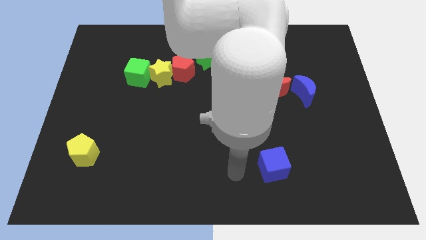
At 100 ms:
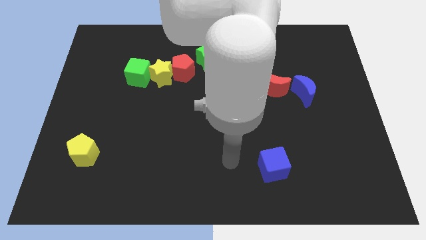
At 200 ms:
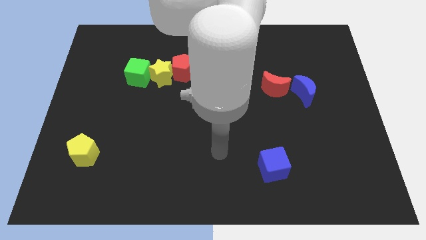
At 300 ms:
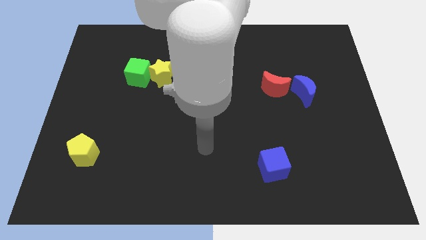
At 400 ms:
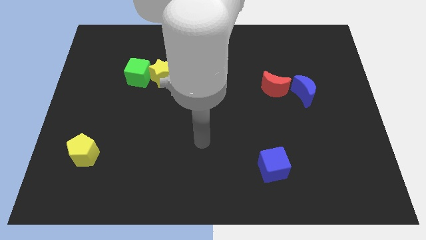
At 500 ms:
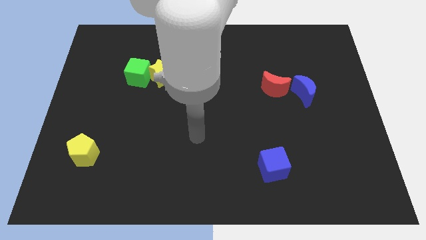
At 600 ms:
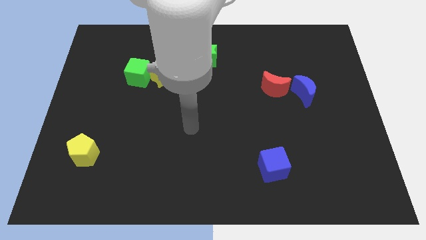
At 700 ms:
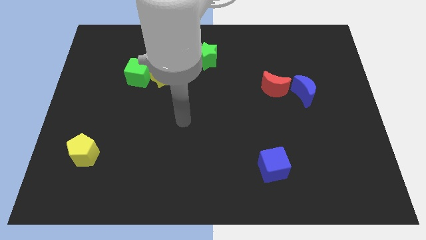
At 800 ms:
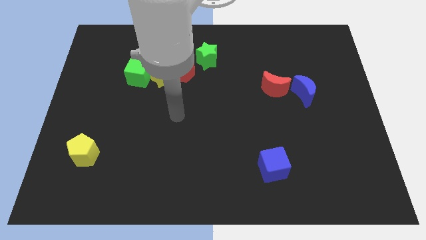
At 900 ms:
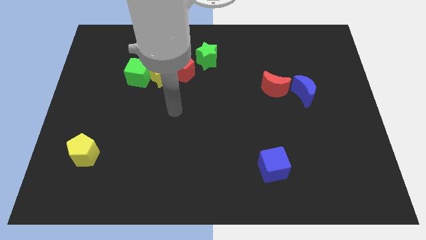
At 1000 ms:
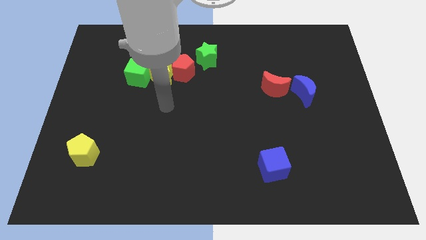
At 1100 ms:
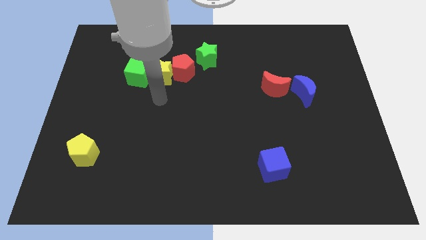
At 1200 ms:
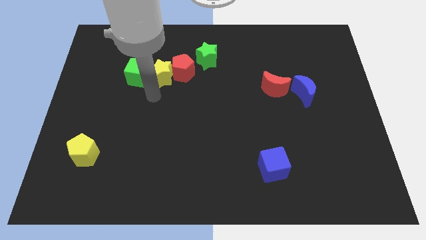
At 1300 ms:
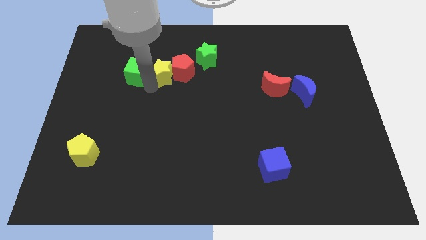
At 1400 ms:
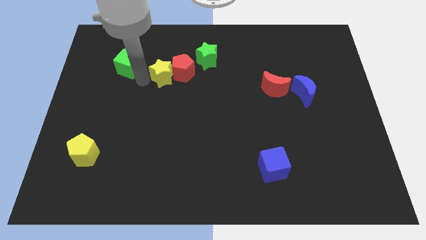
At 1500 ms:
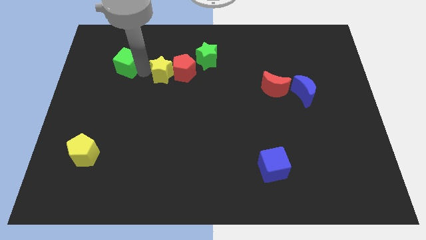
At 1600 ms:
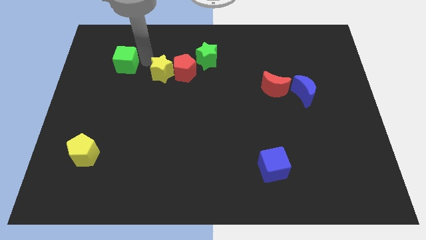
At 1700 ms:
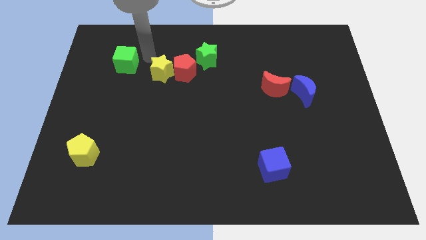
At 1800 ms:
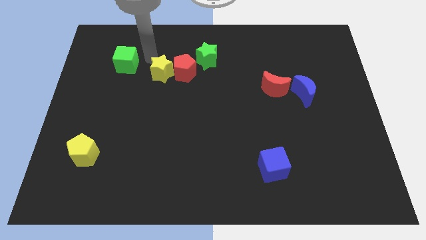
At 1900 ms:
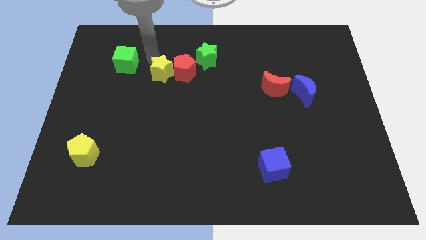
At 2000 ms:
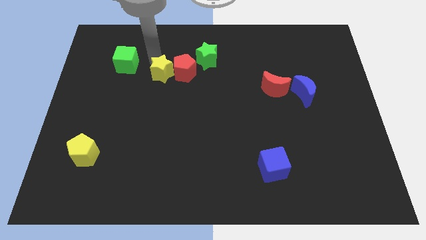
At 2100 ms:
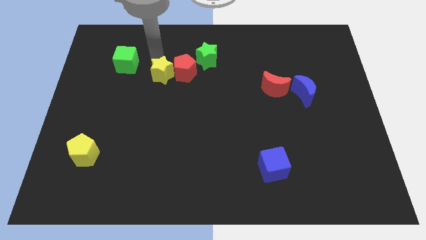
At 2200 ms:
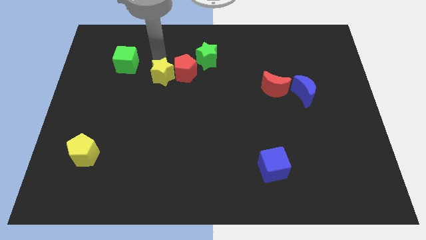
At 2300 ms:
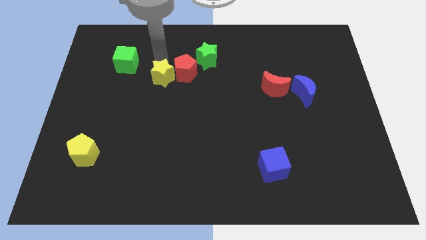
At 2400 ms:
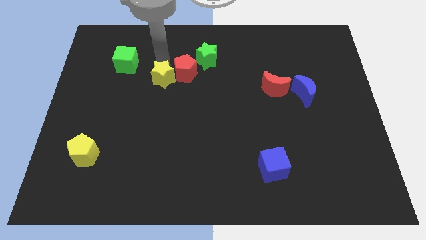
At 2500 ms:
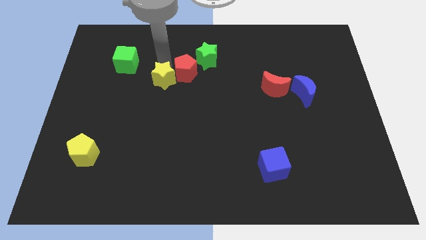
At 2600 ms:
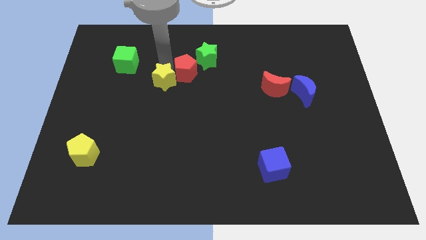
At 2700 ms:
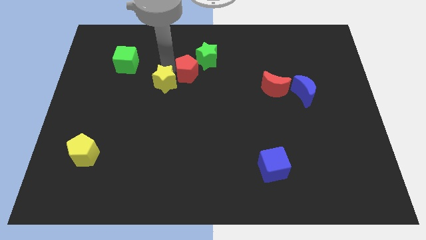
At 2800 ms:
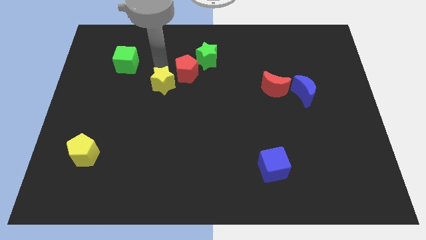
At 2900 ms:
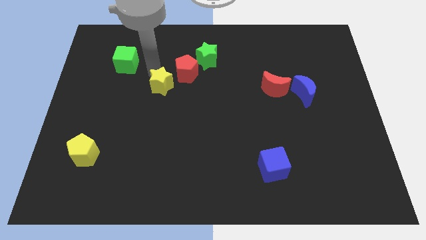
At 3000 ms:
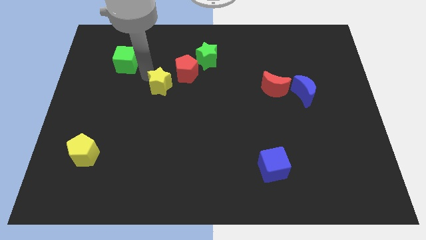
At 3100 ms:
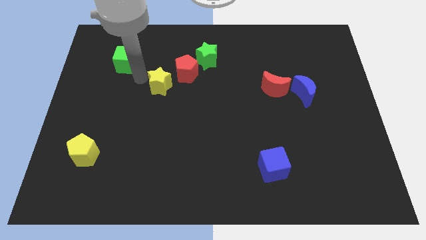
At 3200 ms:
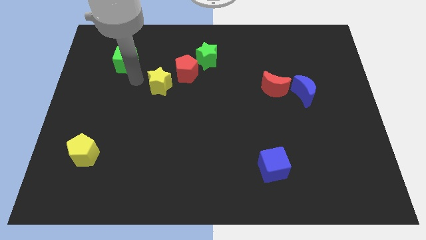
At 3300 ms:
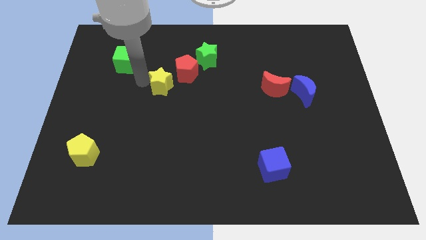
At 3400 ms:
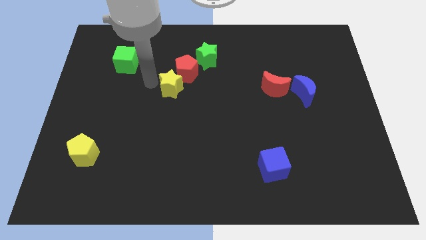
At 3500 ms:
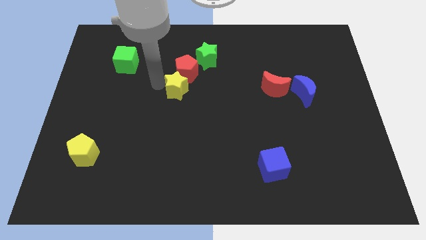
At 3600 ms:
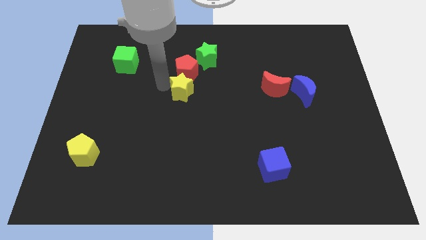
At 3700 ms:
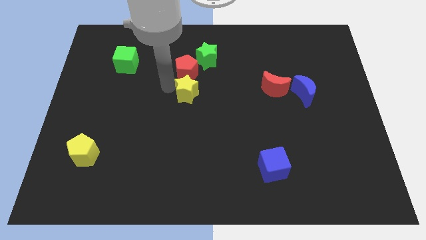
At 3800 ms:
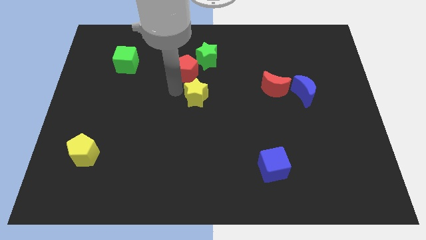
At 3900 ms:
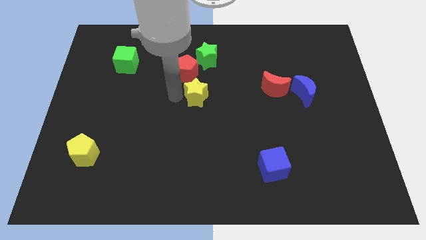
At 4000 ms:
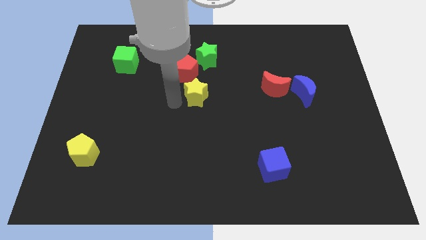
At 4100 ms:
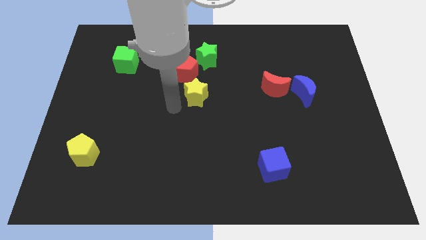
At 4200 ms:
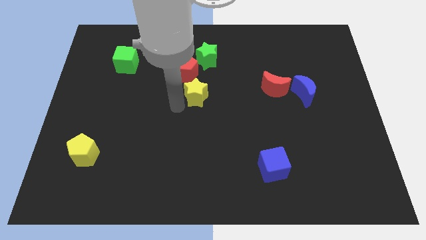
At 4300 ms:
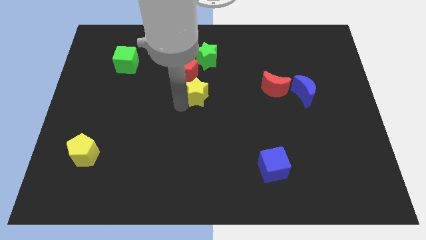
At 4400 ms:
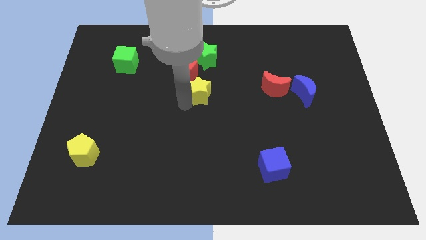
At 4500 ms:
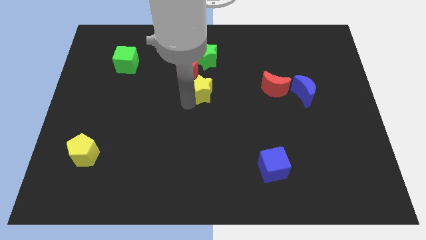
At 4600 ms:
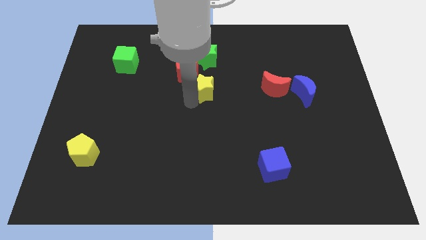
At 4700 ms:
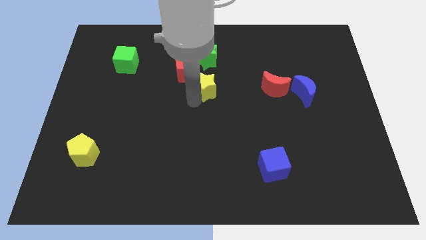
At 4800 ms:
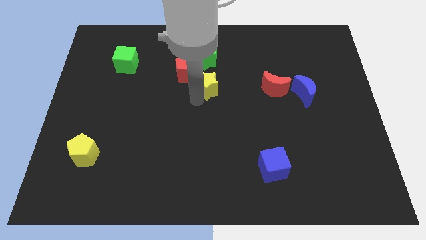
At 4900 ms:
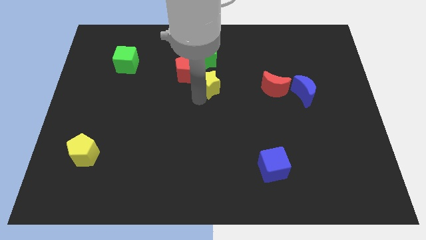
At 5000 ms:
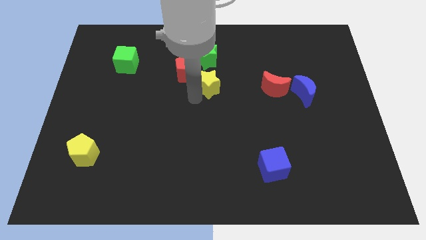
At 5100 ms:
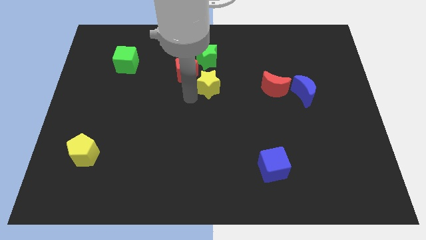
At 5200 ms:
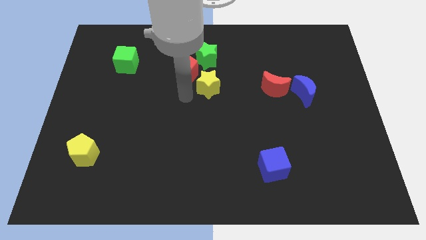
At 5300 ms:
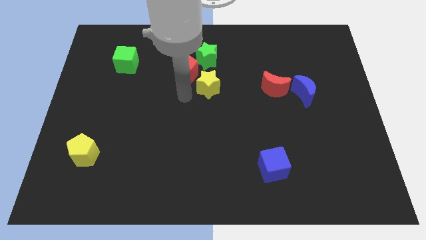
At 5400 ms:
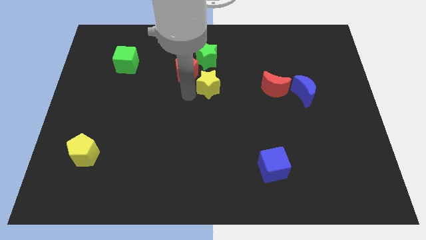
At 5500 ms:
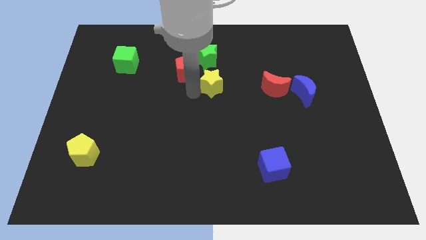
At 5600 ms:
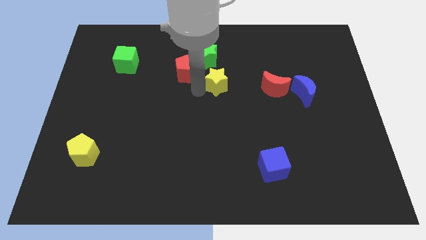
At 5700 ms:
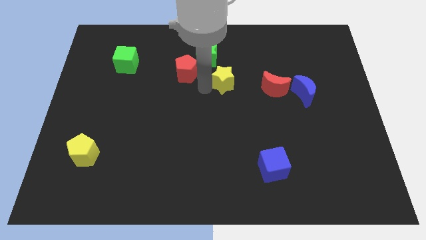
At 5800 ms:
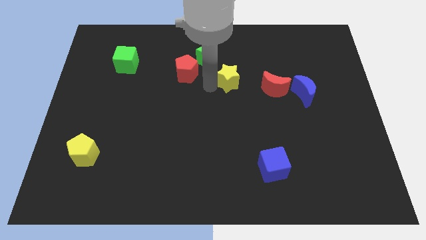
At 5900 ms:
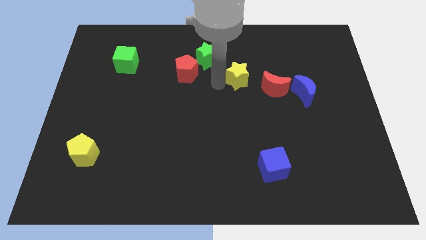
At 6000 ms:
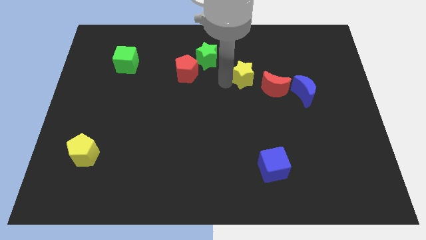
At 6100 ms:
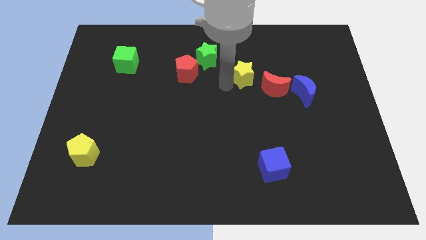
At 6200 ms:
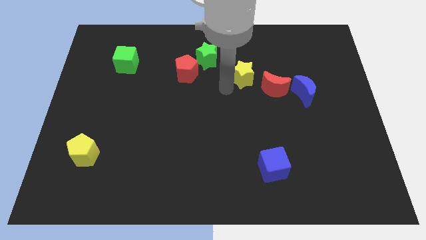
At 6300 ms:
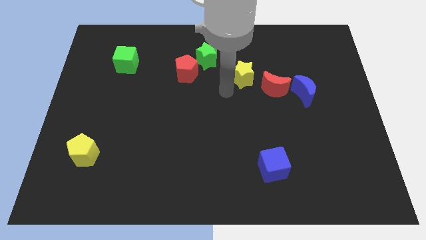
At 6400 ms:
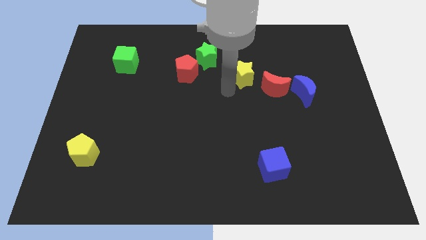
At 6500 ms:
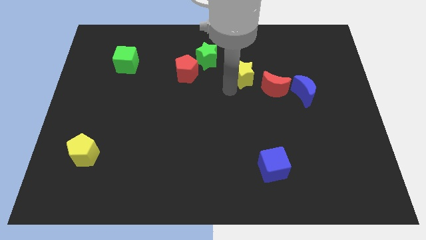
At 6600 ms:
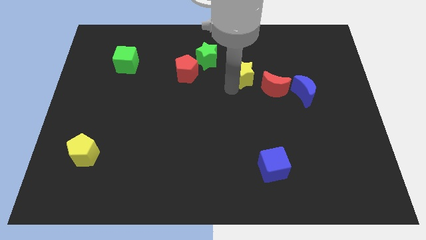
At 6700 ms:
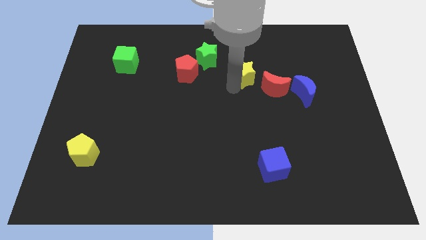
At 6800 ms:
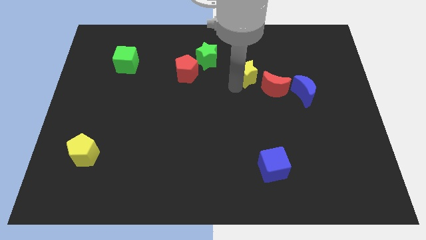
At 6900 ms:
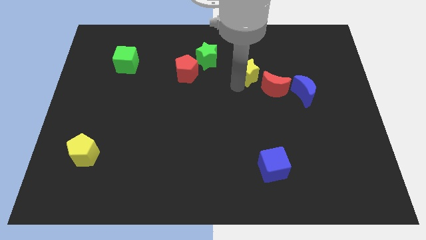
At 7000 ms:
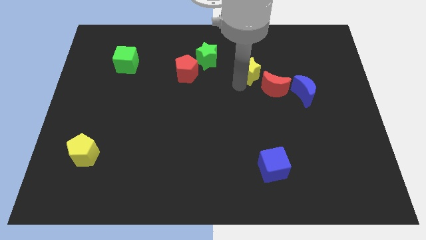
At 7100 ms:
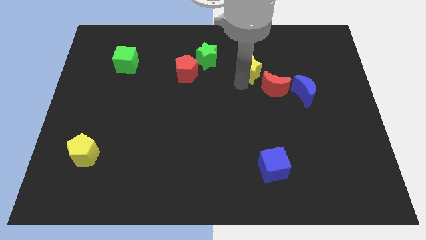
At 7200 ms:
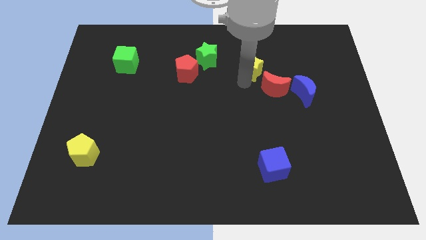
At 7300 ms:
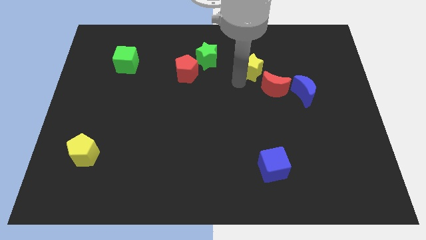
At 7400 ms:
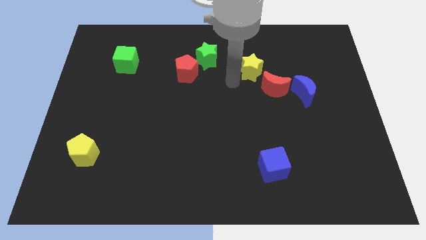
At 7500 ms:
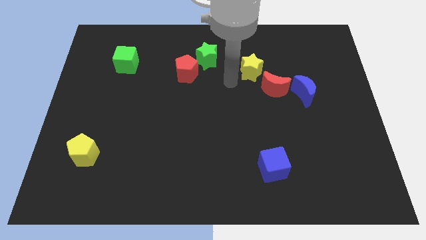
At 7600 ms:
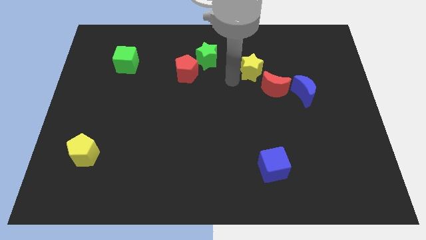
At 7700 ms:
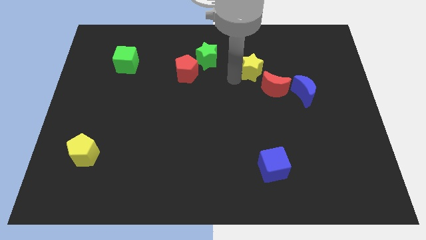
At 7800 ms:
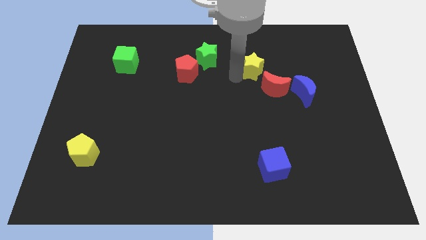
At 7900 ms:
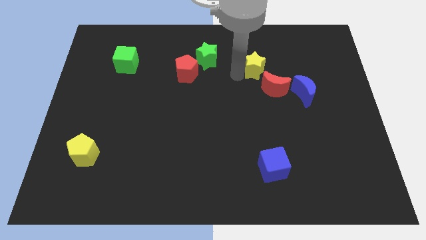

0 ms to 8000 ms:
slide the yellow star above the red moon

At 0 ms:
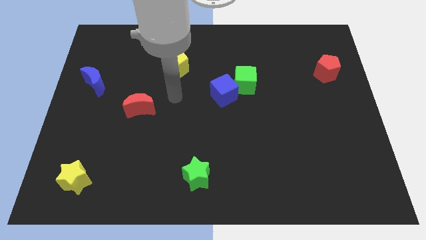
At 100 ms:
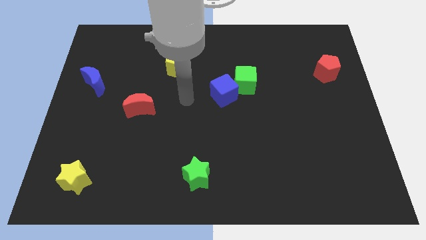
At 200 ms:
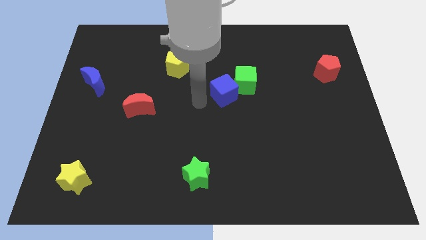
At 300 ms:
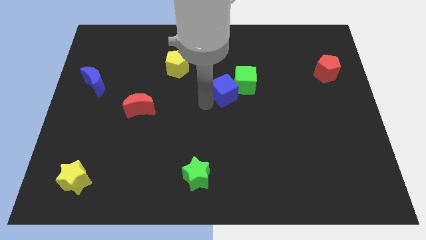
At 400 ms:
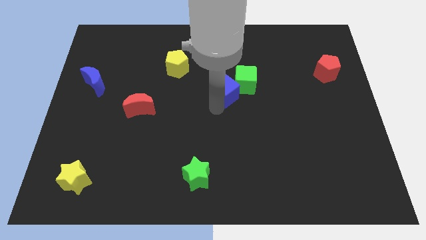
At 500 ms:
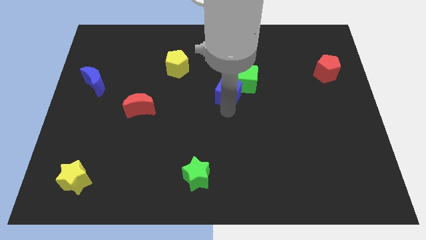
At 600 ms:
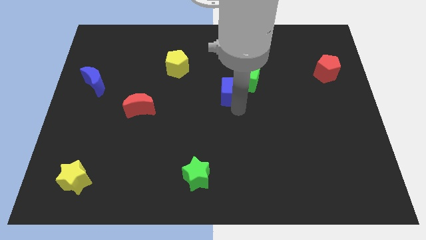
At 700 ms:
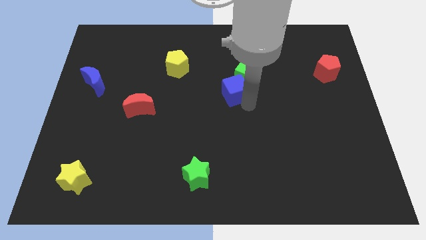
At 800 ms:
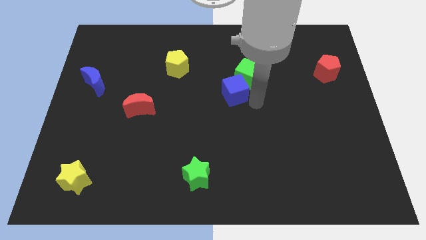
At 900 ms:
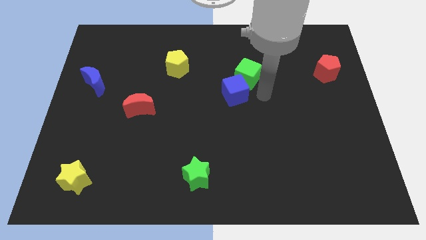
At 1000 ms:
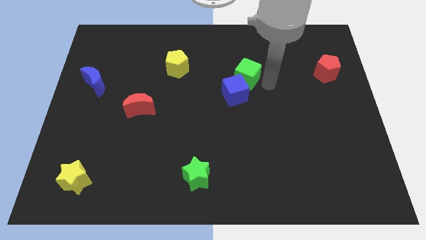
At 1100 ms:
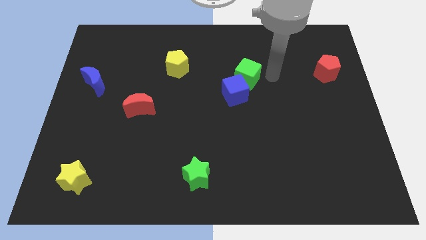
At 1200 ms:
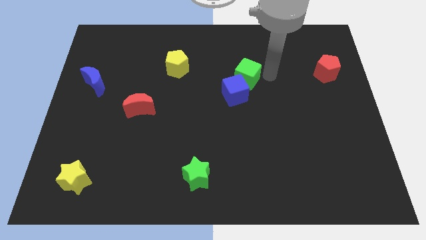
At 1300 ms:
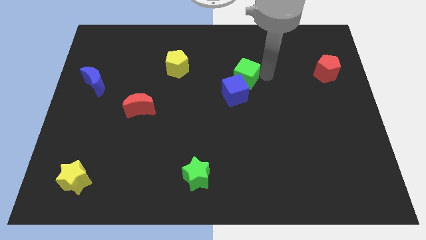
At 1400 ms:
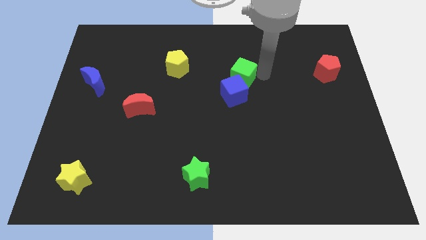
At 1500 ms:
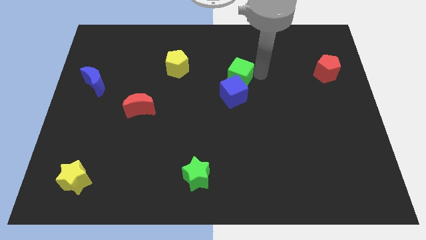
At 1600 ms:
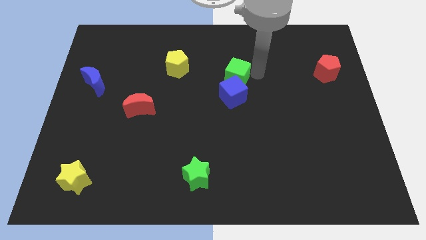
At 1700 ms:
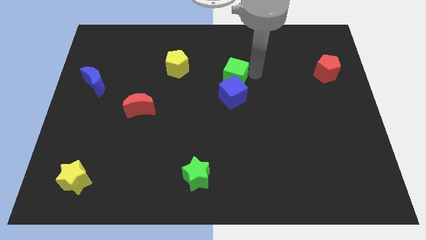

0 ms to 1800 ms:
put the green cube diagonally up and to the left of the blue cube
